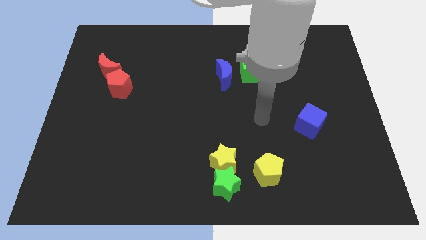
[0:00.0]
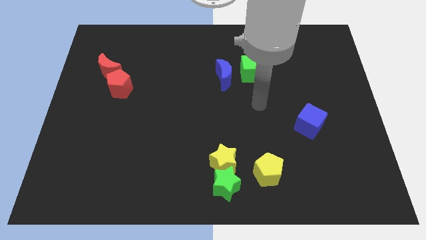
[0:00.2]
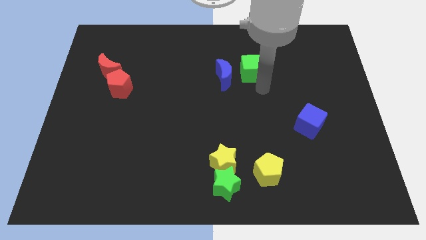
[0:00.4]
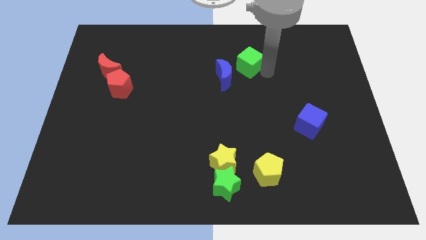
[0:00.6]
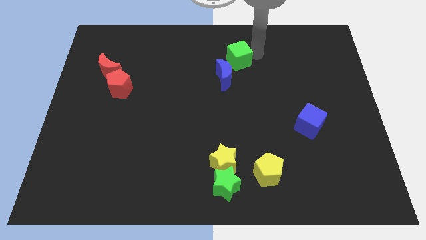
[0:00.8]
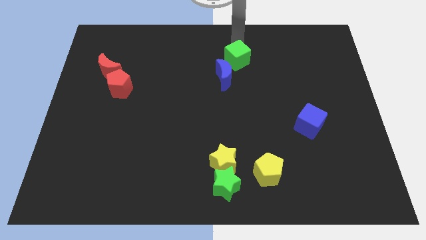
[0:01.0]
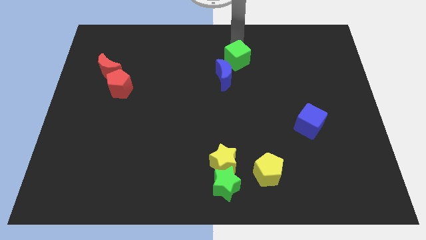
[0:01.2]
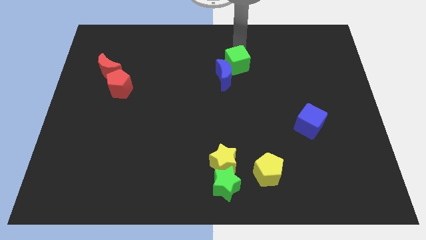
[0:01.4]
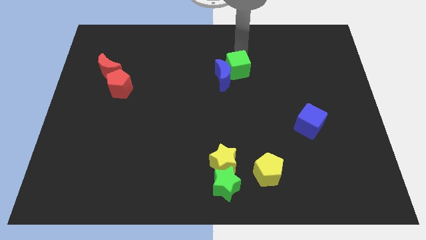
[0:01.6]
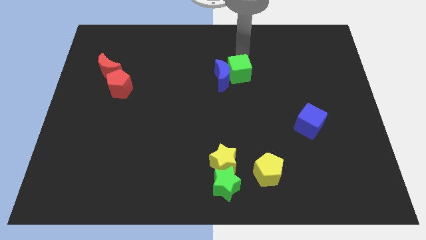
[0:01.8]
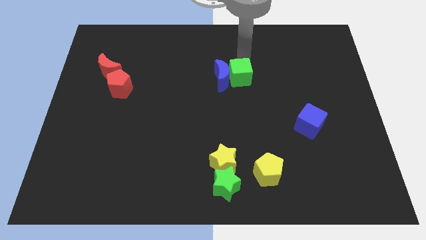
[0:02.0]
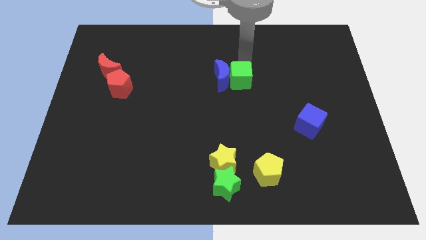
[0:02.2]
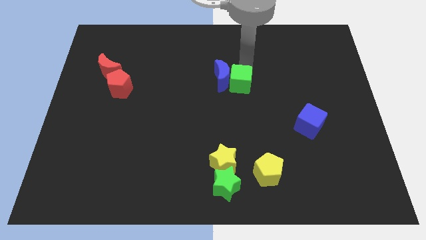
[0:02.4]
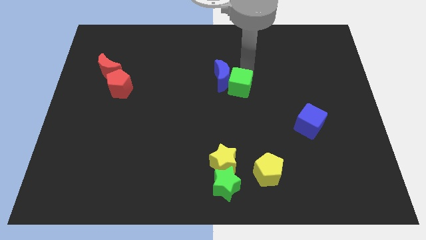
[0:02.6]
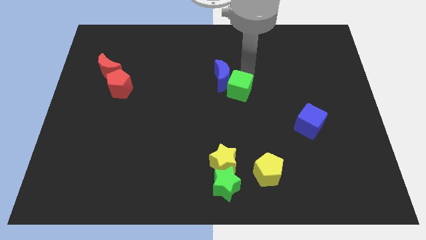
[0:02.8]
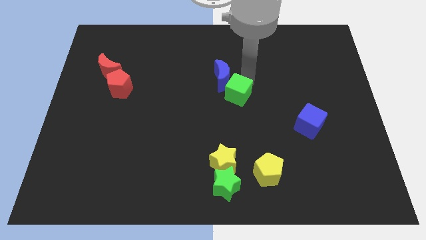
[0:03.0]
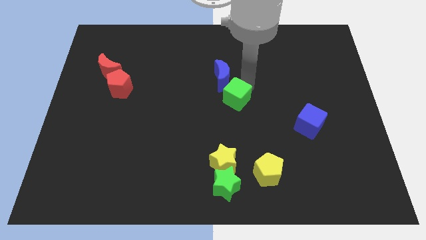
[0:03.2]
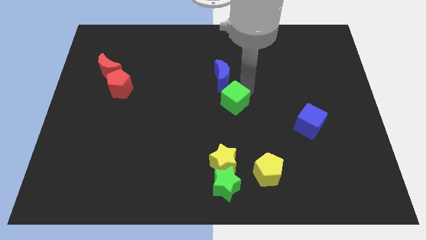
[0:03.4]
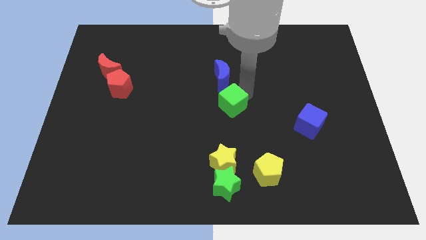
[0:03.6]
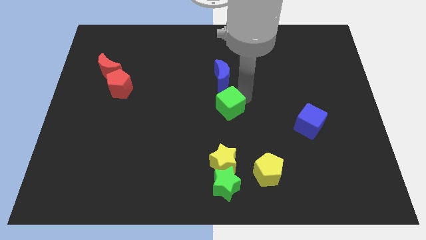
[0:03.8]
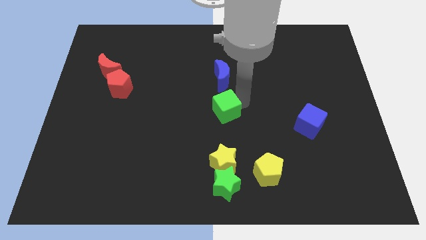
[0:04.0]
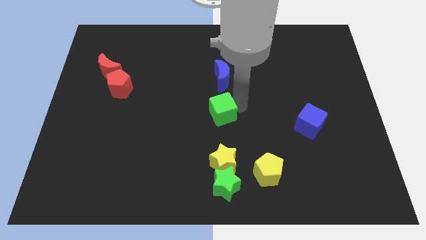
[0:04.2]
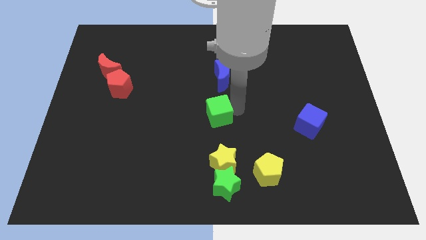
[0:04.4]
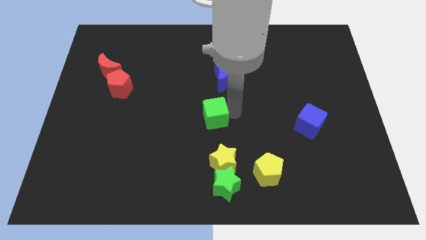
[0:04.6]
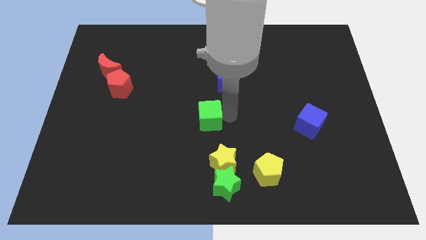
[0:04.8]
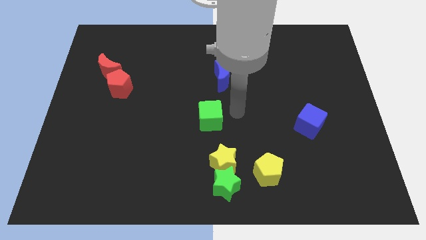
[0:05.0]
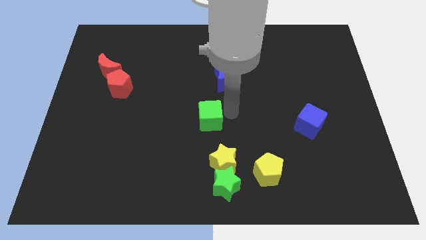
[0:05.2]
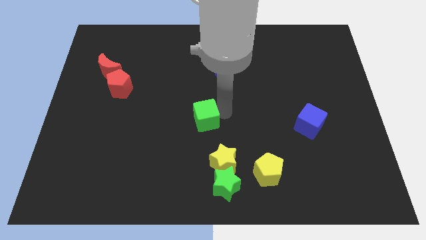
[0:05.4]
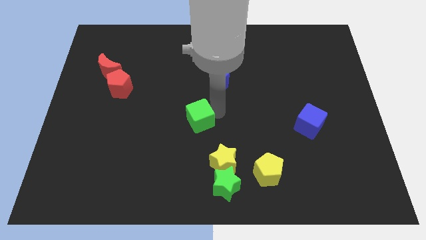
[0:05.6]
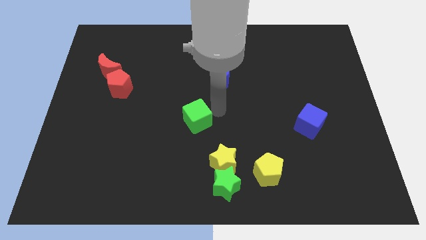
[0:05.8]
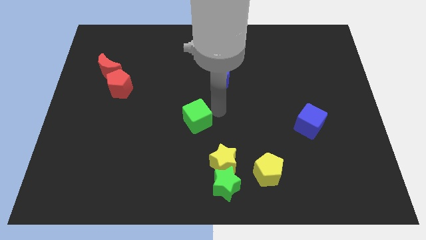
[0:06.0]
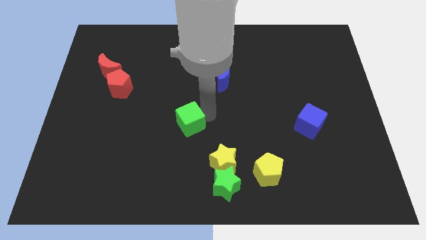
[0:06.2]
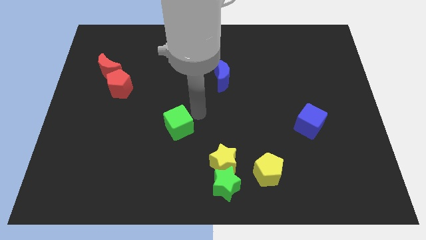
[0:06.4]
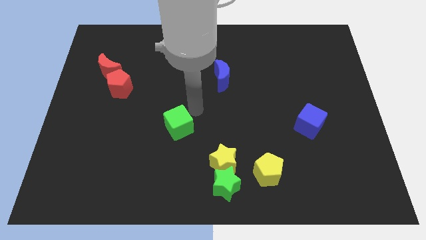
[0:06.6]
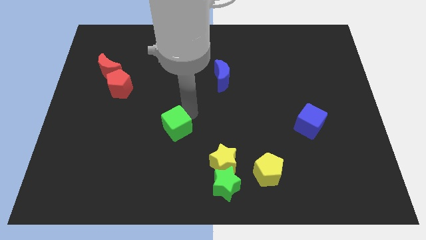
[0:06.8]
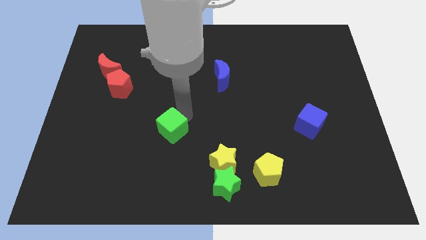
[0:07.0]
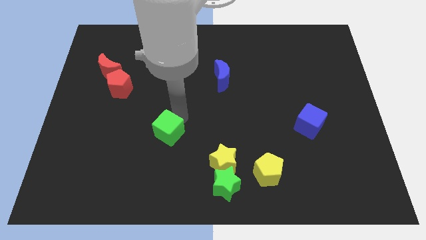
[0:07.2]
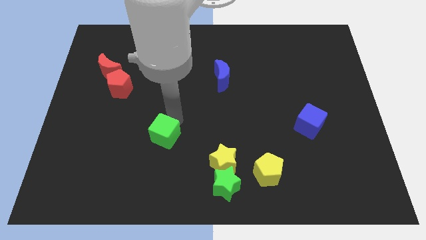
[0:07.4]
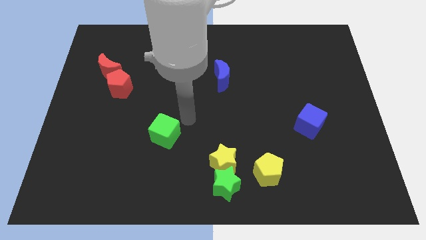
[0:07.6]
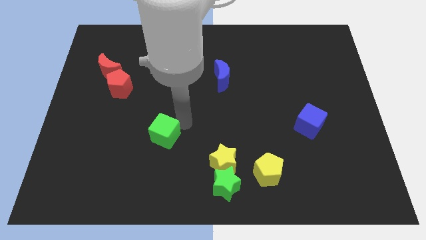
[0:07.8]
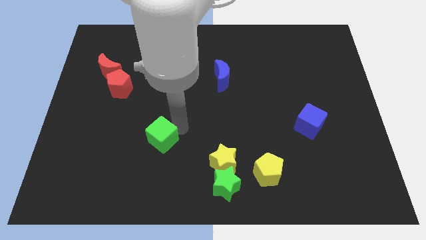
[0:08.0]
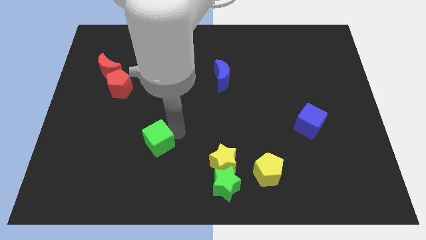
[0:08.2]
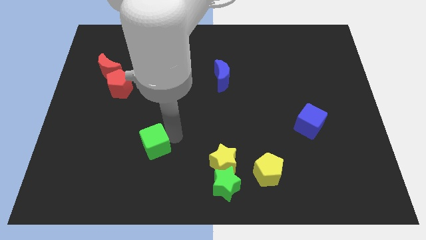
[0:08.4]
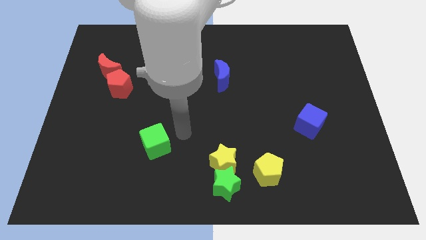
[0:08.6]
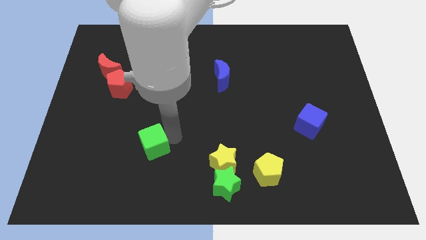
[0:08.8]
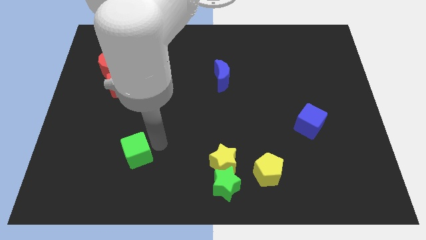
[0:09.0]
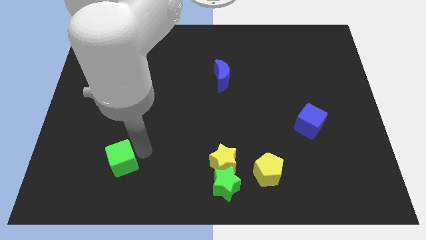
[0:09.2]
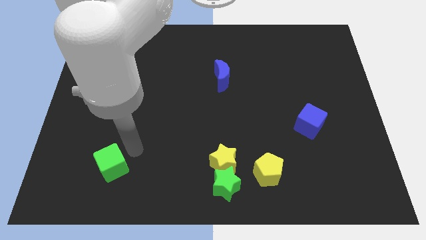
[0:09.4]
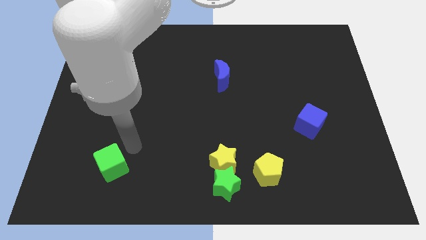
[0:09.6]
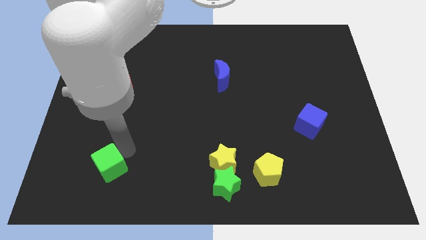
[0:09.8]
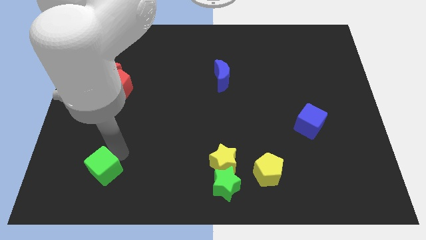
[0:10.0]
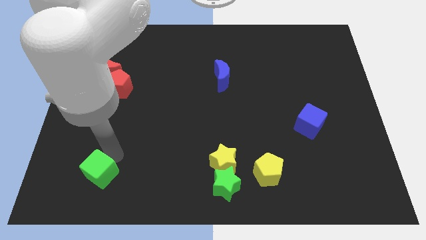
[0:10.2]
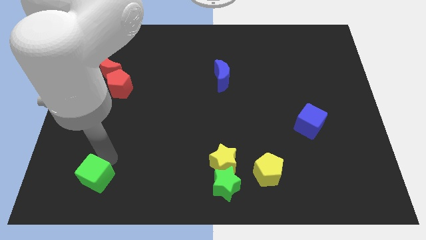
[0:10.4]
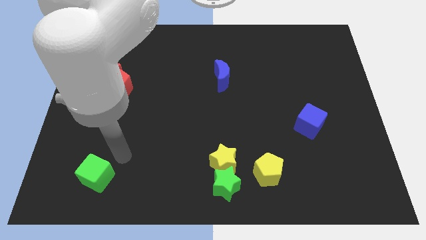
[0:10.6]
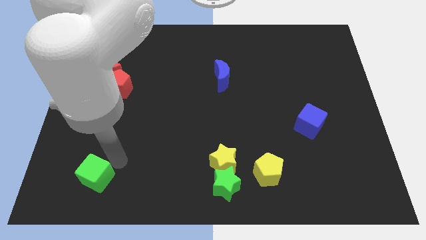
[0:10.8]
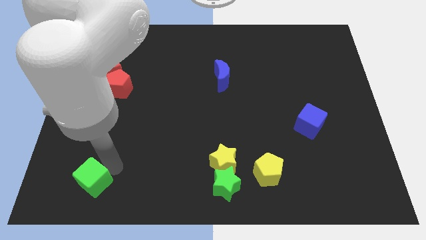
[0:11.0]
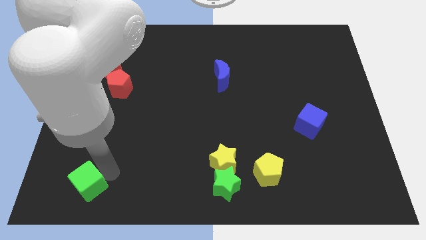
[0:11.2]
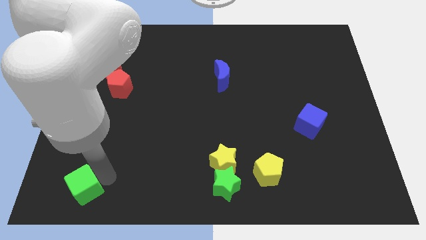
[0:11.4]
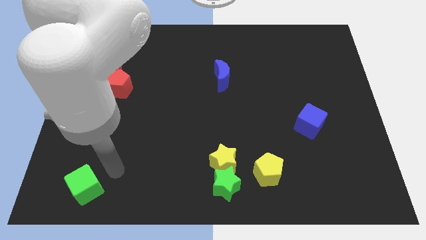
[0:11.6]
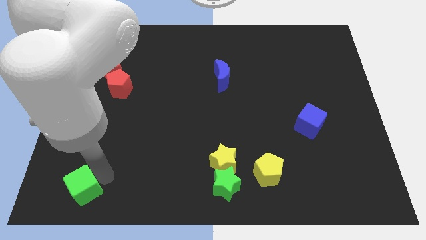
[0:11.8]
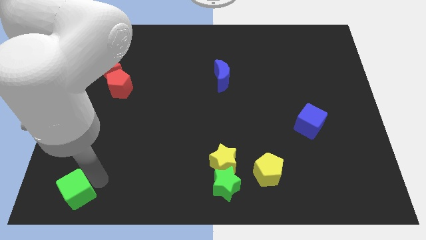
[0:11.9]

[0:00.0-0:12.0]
push the green cube to the bottom left
